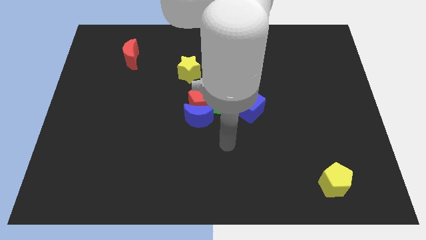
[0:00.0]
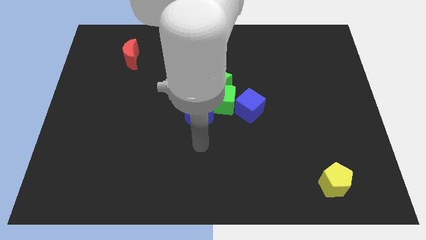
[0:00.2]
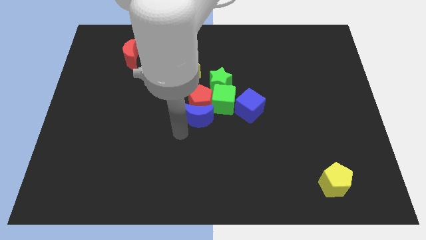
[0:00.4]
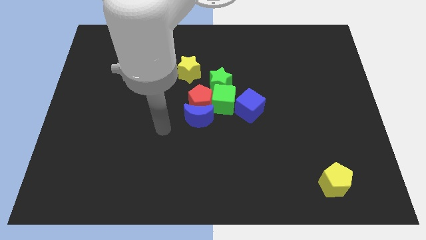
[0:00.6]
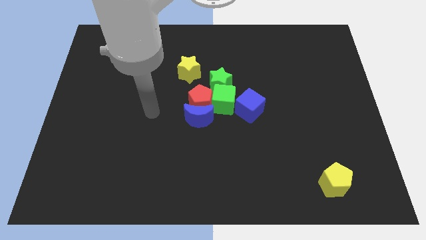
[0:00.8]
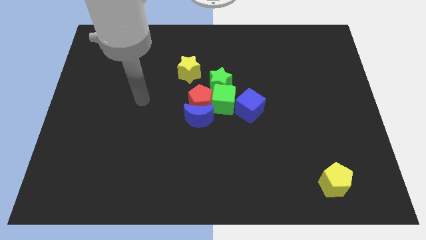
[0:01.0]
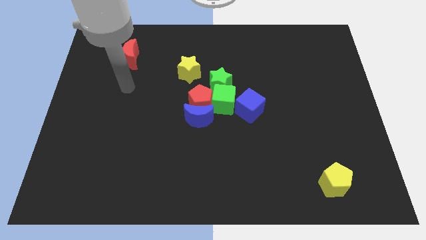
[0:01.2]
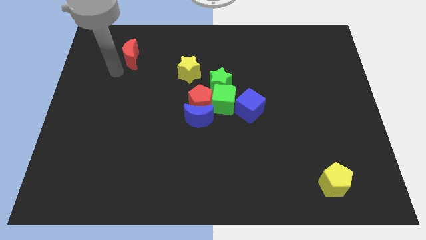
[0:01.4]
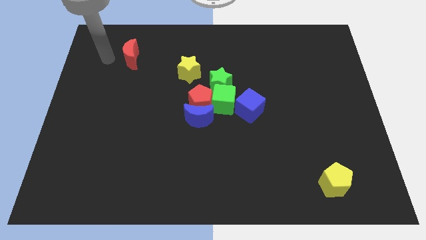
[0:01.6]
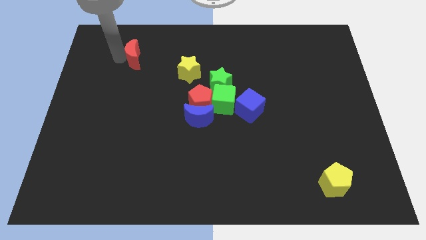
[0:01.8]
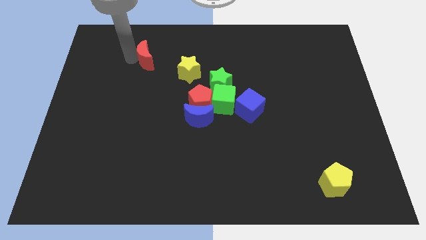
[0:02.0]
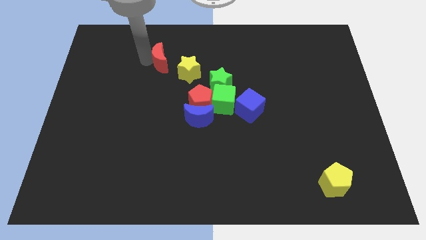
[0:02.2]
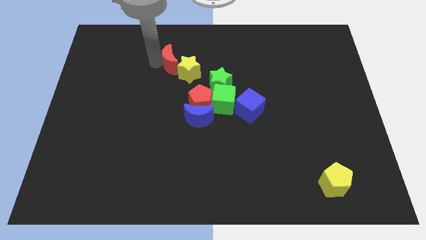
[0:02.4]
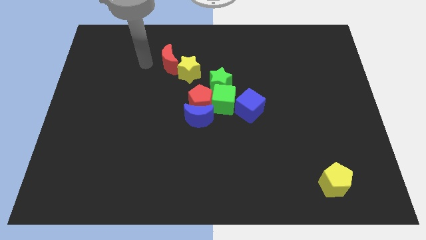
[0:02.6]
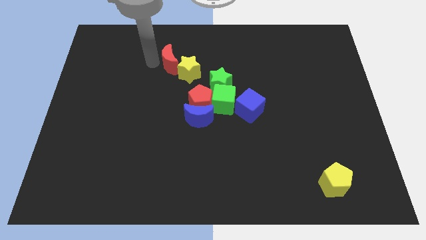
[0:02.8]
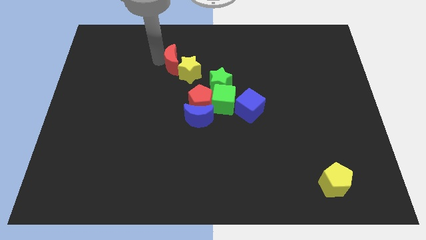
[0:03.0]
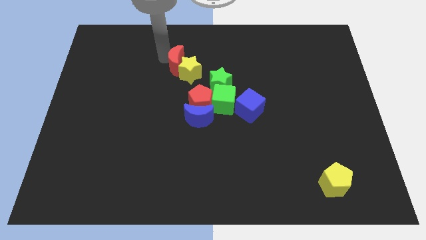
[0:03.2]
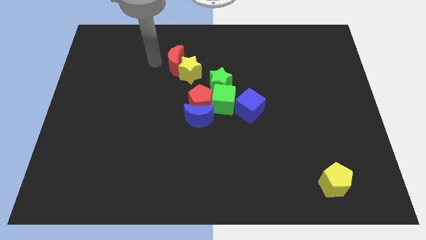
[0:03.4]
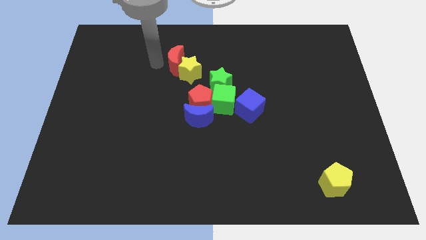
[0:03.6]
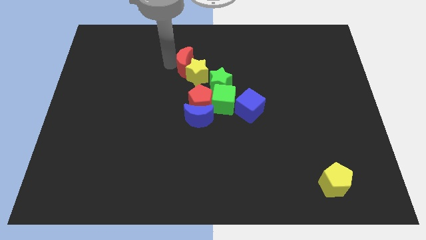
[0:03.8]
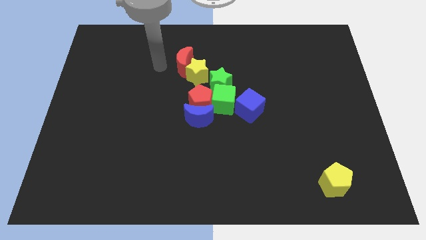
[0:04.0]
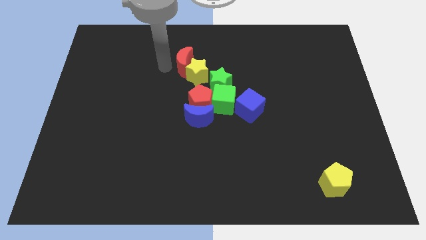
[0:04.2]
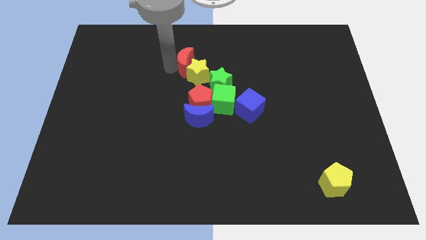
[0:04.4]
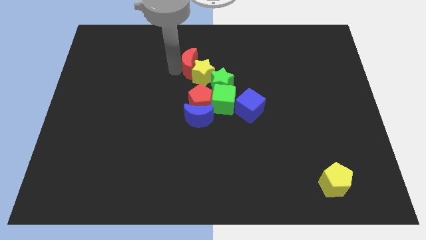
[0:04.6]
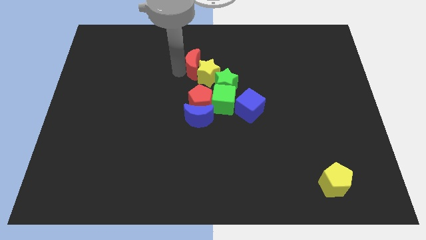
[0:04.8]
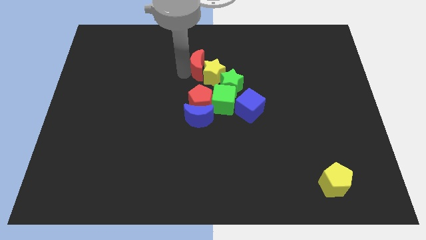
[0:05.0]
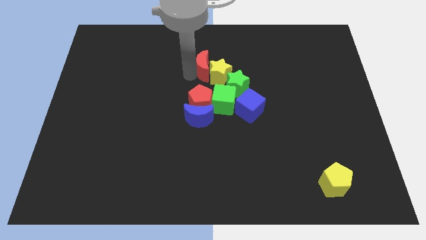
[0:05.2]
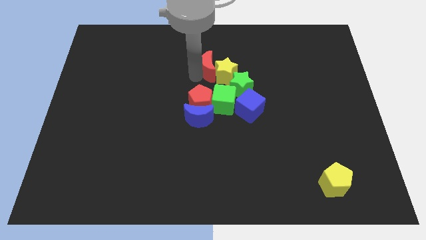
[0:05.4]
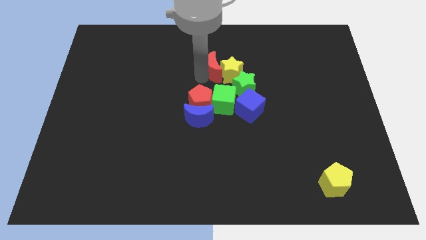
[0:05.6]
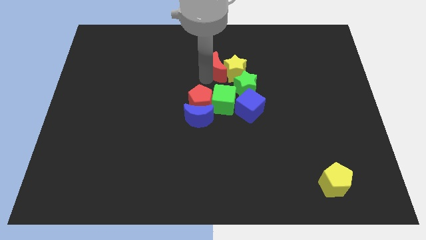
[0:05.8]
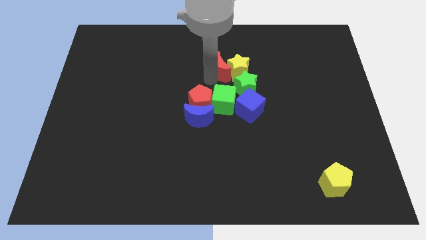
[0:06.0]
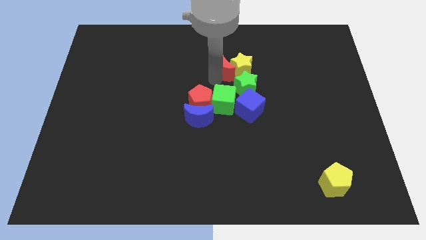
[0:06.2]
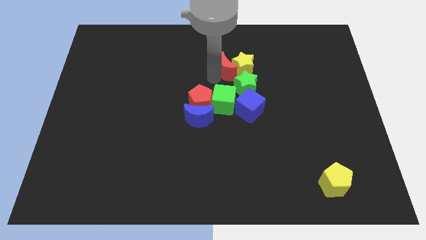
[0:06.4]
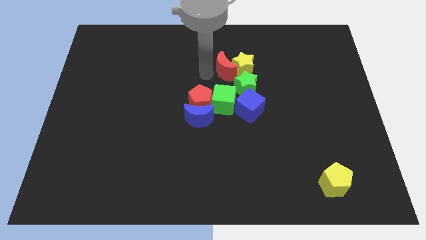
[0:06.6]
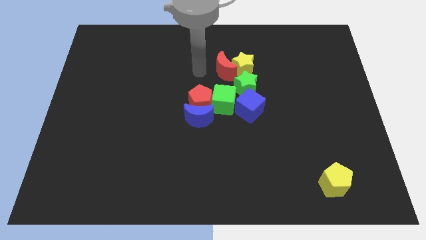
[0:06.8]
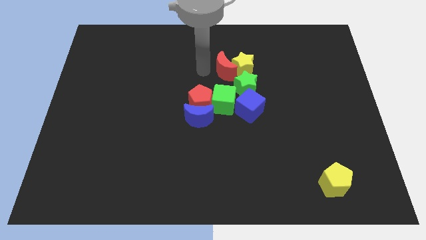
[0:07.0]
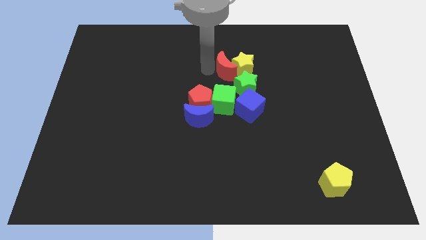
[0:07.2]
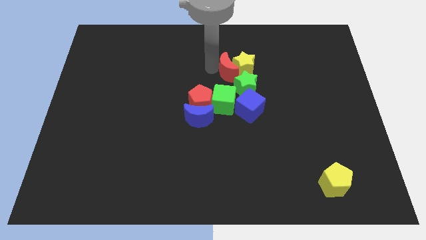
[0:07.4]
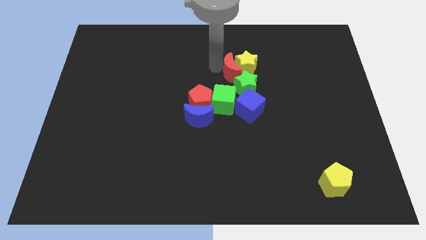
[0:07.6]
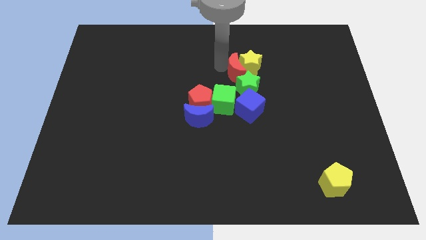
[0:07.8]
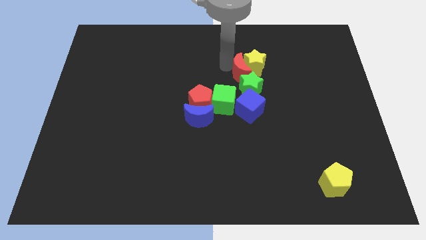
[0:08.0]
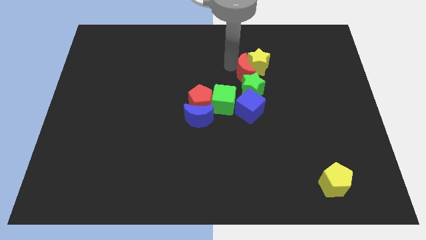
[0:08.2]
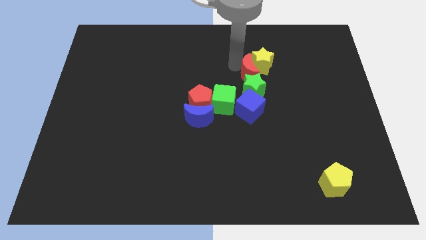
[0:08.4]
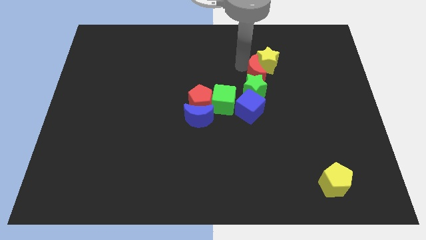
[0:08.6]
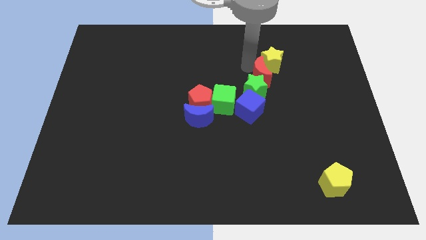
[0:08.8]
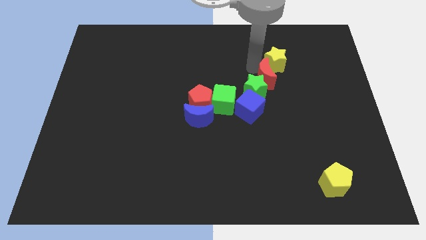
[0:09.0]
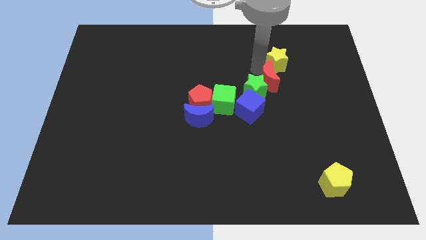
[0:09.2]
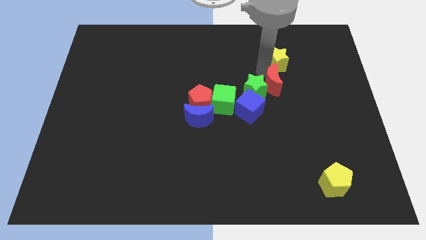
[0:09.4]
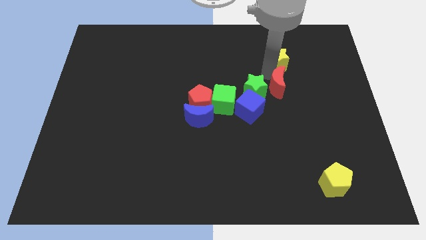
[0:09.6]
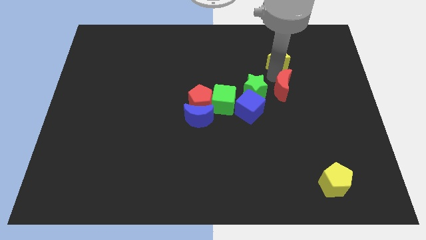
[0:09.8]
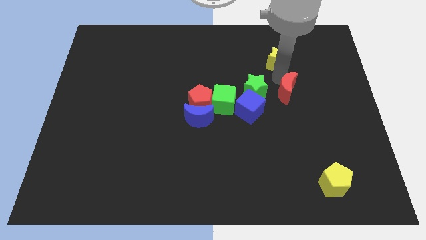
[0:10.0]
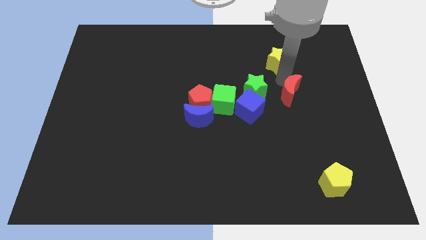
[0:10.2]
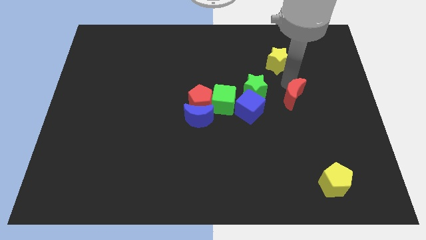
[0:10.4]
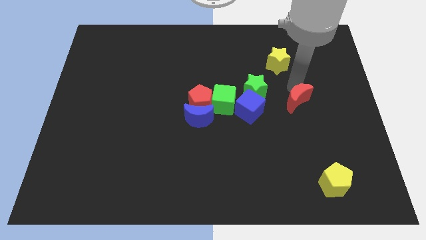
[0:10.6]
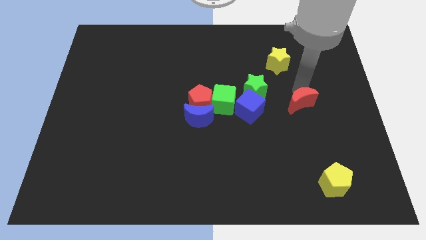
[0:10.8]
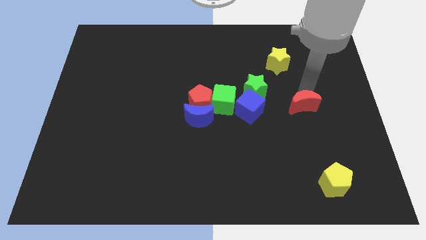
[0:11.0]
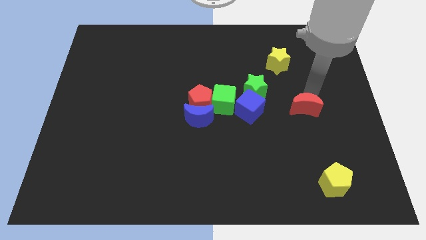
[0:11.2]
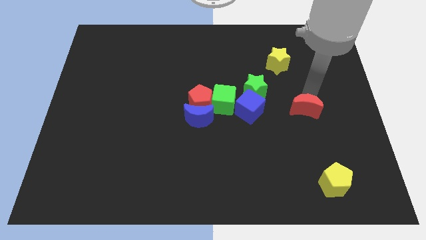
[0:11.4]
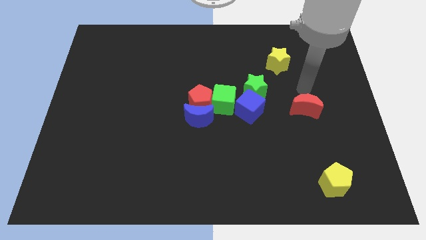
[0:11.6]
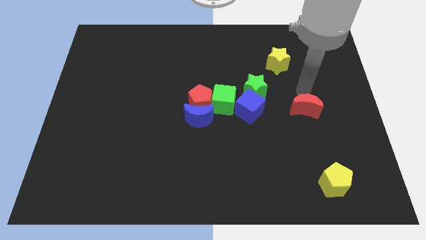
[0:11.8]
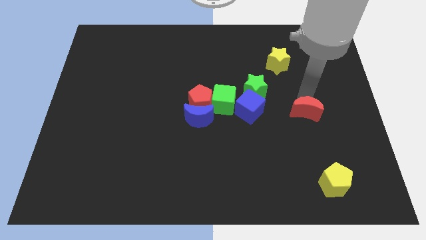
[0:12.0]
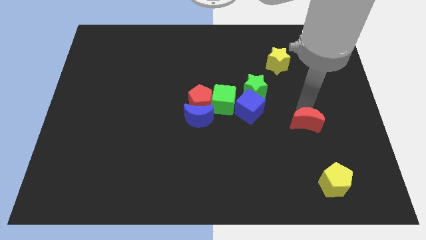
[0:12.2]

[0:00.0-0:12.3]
slide the red moon to the top of the yellow pentagon
